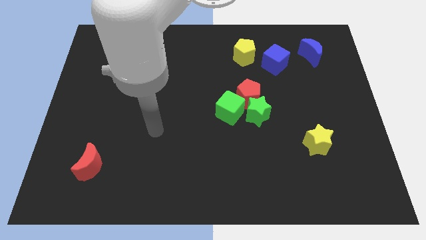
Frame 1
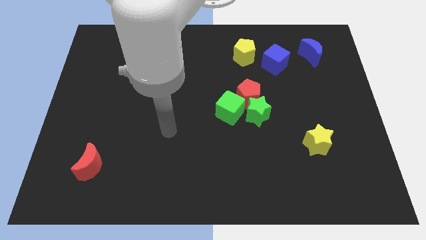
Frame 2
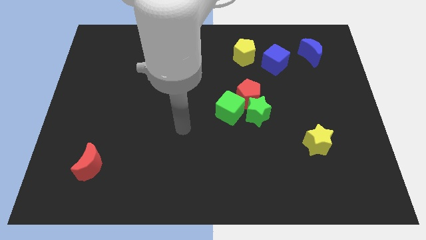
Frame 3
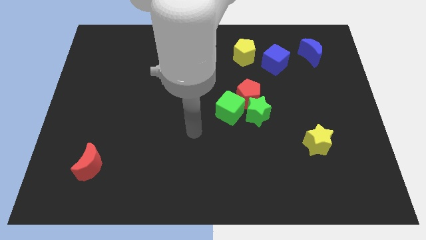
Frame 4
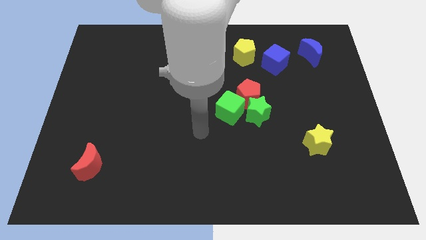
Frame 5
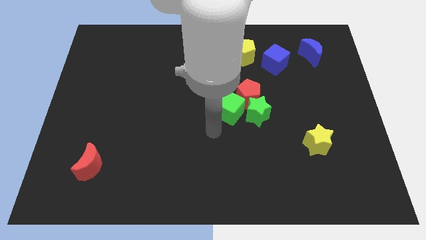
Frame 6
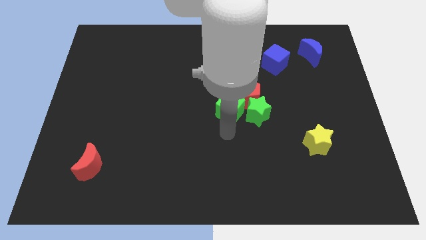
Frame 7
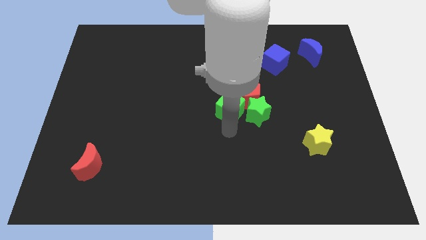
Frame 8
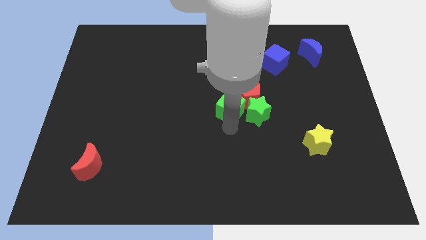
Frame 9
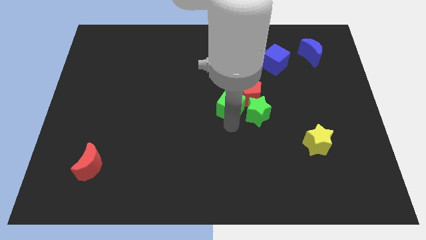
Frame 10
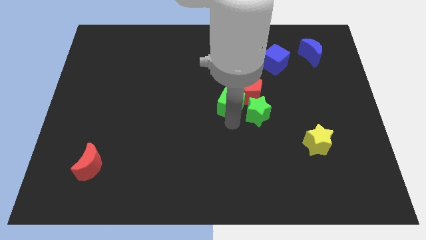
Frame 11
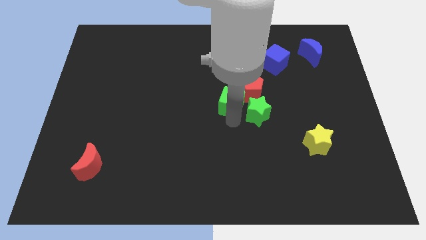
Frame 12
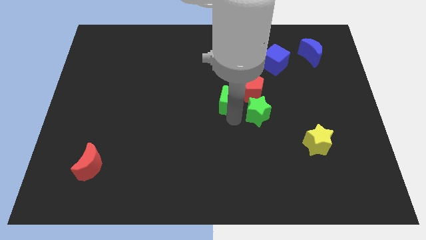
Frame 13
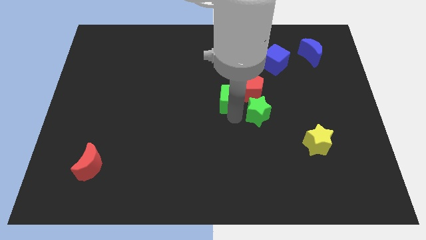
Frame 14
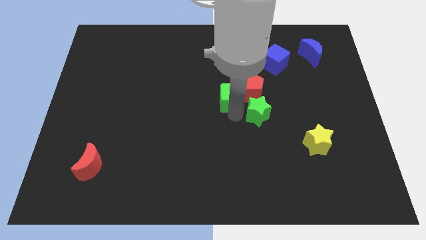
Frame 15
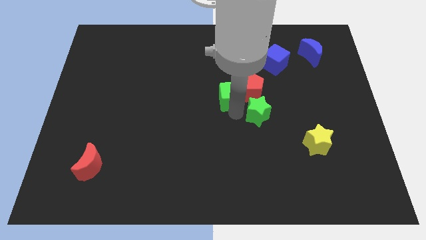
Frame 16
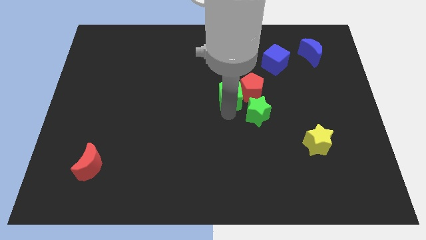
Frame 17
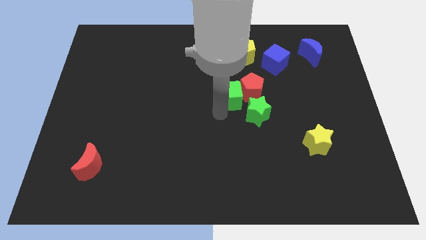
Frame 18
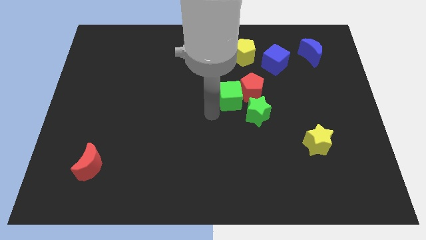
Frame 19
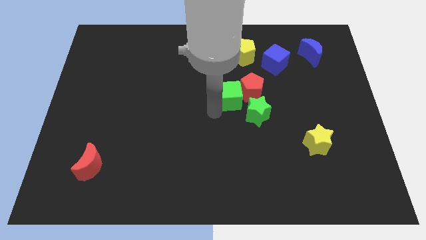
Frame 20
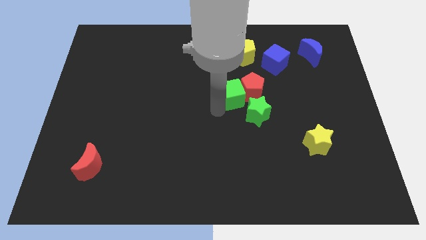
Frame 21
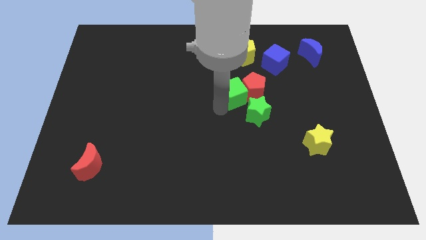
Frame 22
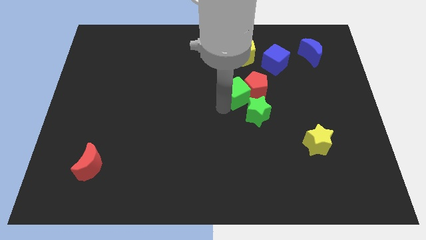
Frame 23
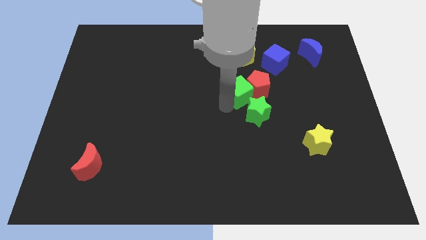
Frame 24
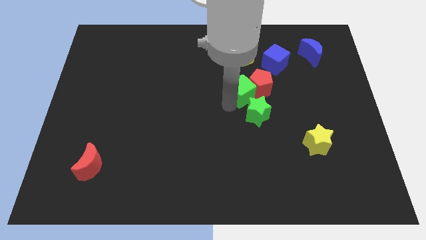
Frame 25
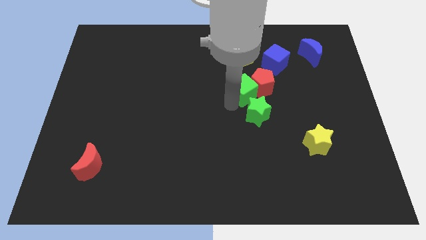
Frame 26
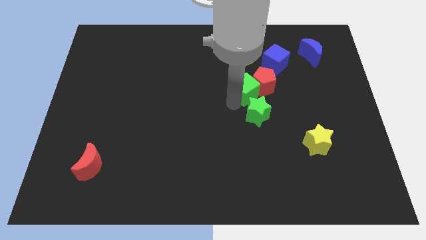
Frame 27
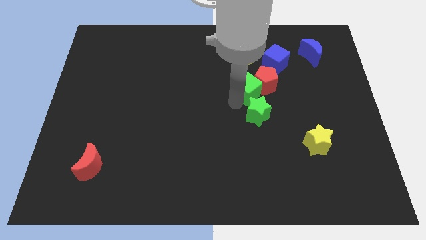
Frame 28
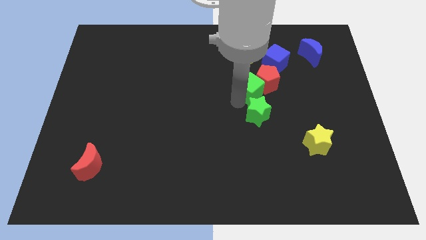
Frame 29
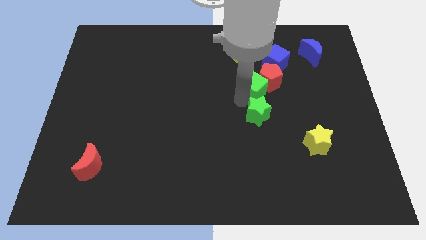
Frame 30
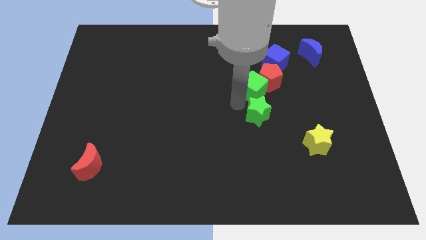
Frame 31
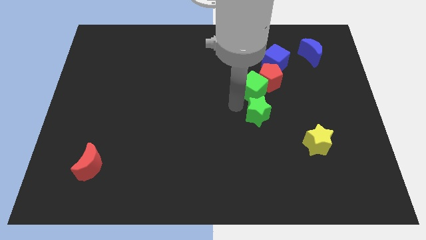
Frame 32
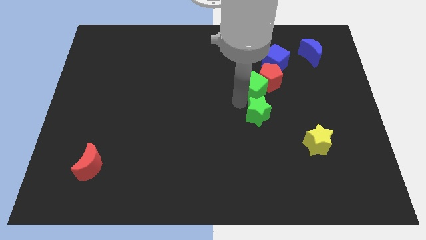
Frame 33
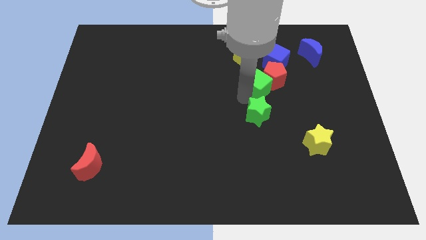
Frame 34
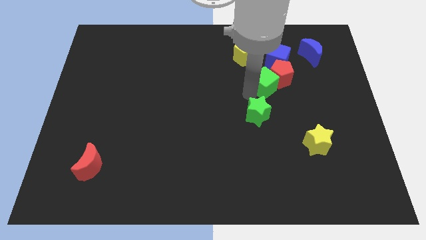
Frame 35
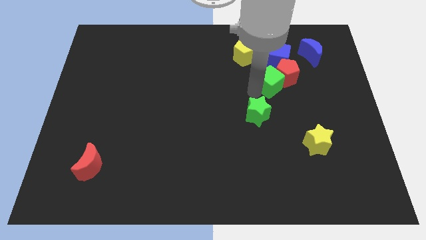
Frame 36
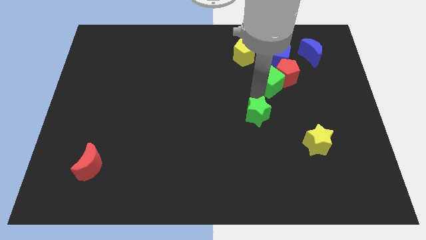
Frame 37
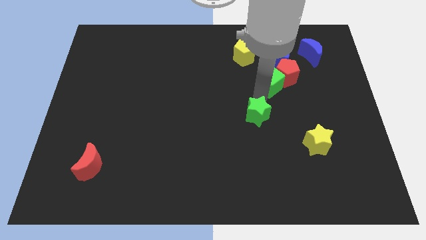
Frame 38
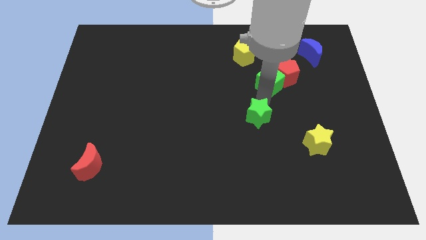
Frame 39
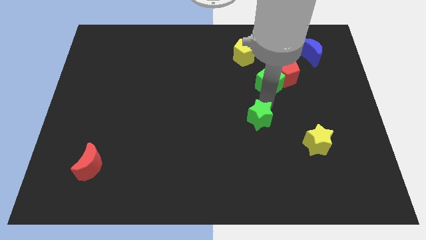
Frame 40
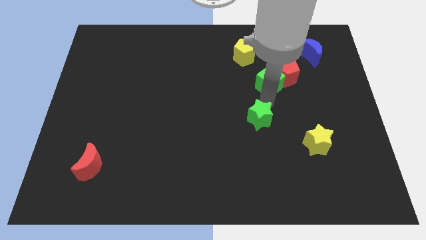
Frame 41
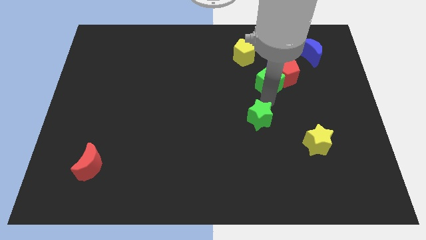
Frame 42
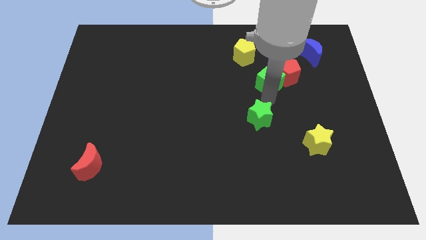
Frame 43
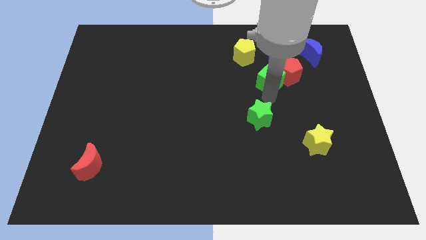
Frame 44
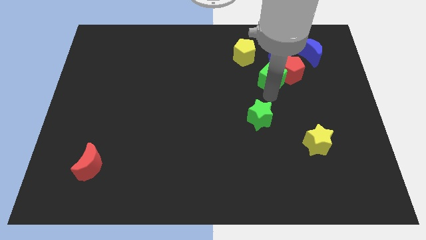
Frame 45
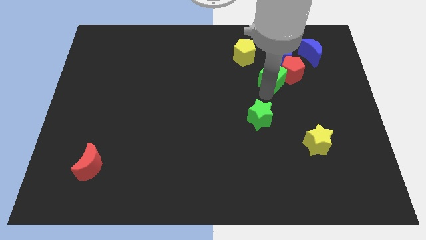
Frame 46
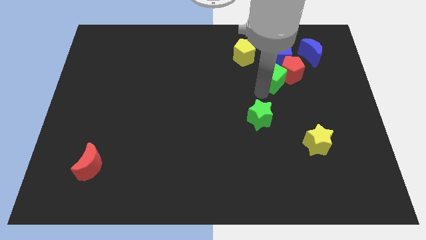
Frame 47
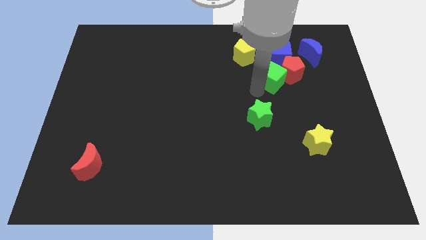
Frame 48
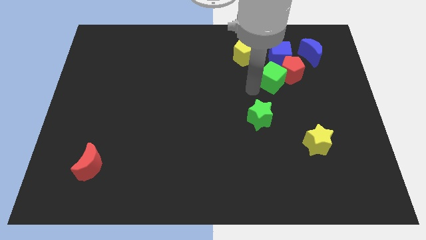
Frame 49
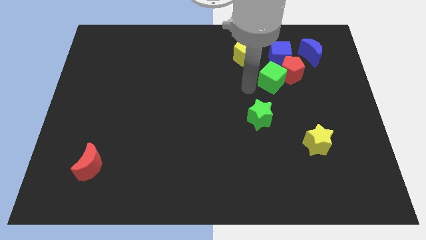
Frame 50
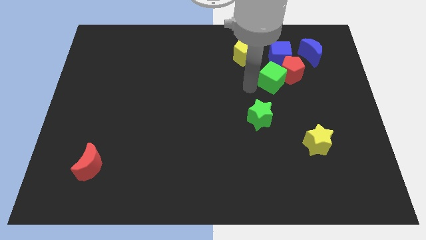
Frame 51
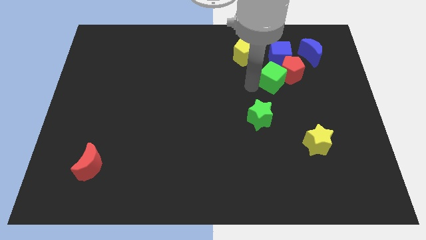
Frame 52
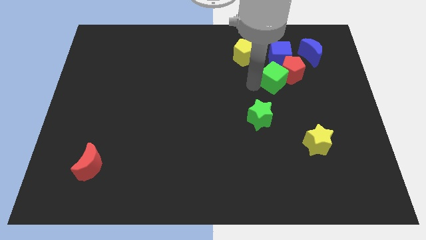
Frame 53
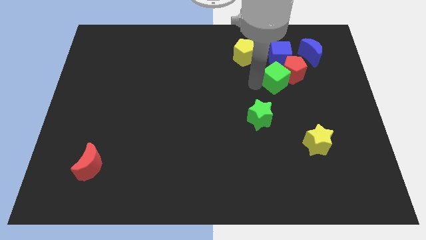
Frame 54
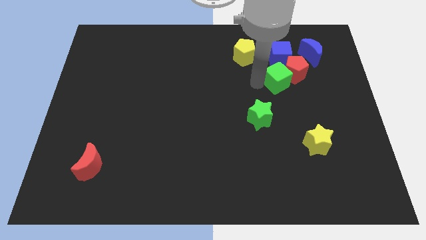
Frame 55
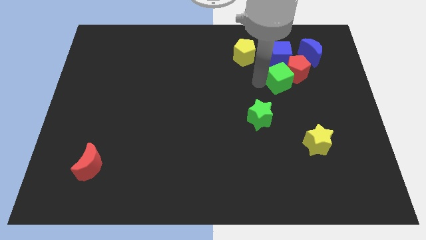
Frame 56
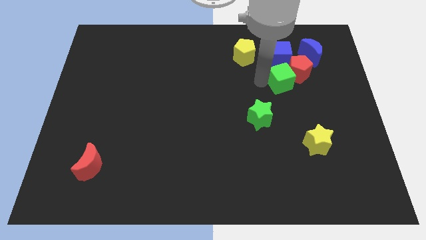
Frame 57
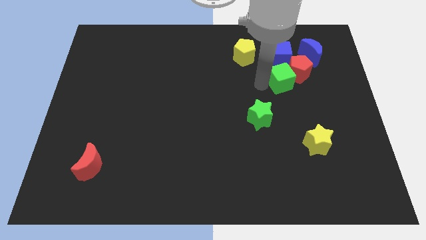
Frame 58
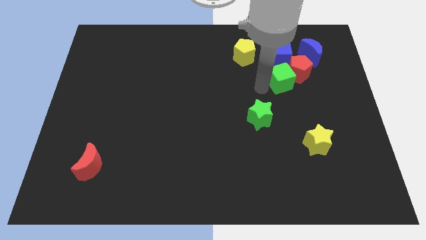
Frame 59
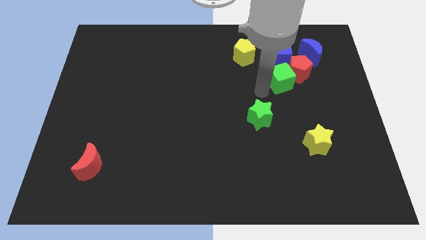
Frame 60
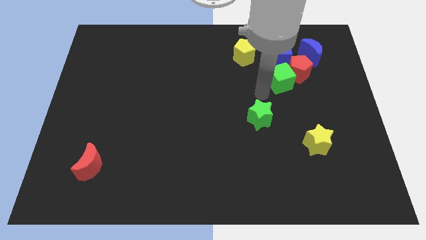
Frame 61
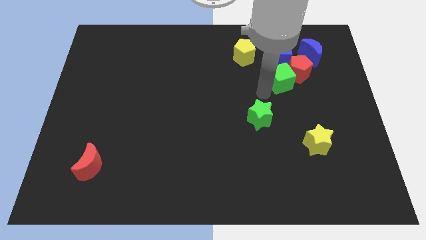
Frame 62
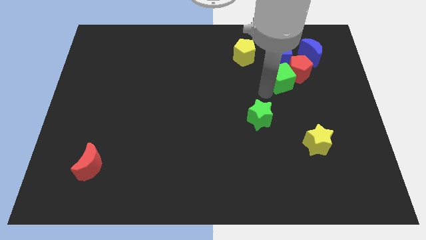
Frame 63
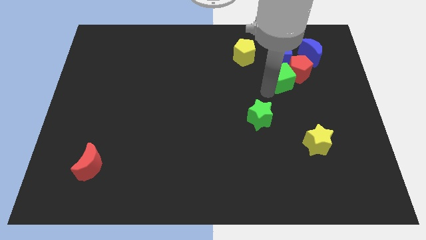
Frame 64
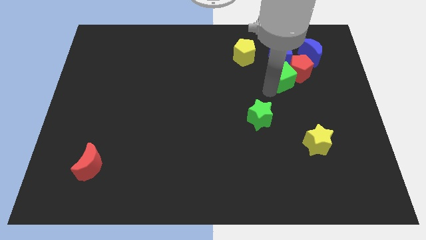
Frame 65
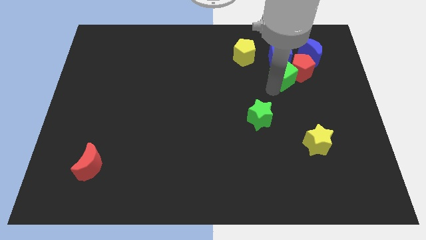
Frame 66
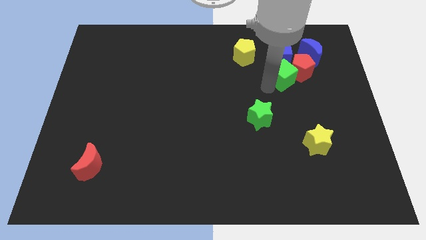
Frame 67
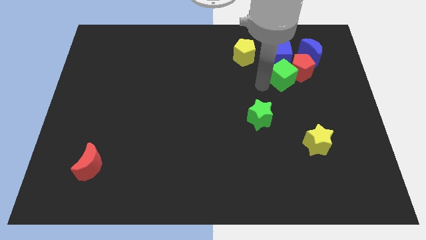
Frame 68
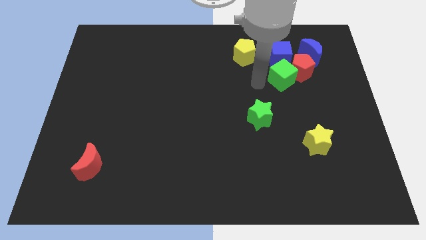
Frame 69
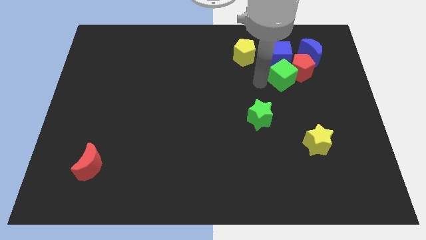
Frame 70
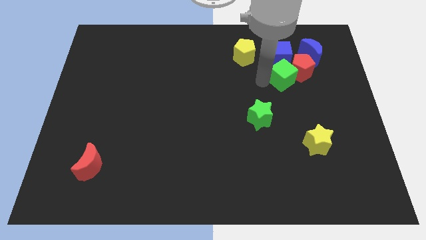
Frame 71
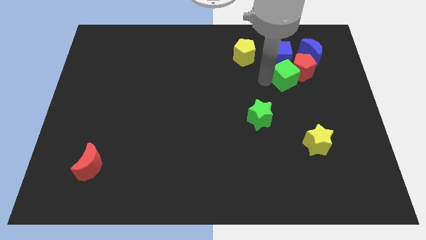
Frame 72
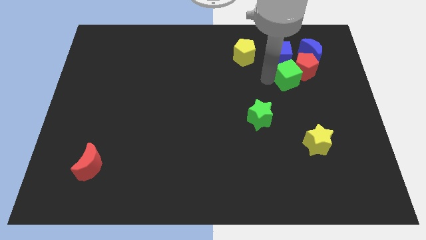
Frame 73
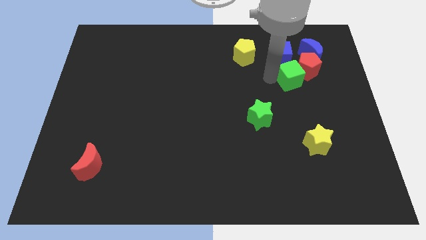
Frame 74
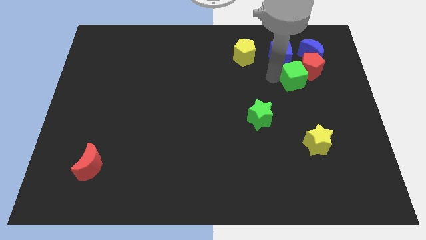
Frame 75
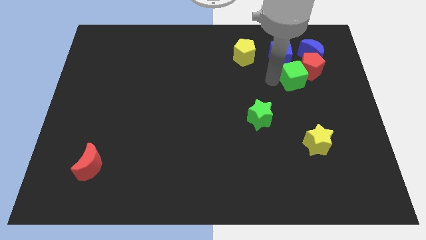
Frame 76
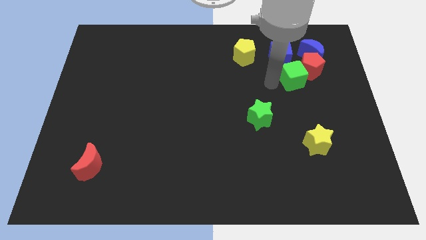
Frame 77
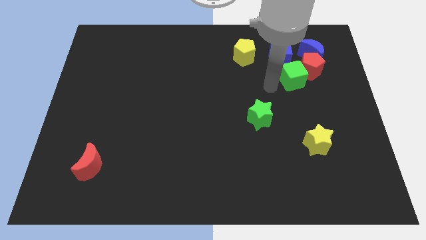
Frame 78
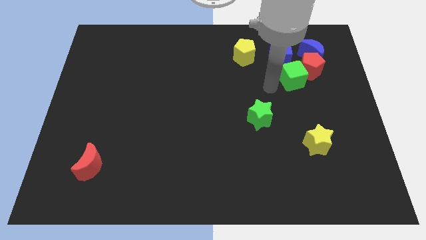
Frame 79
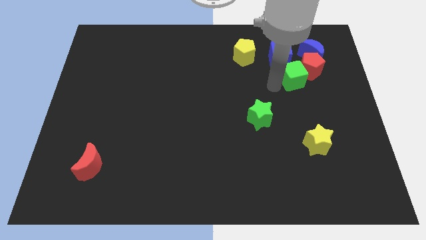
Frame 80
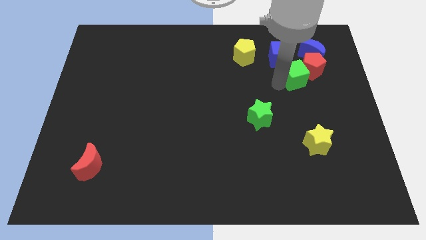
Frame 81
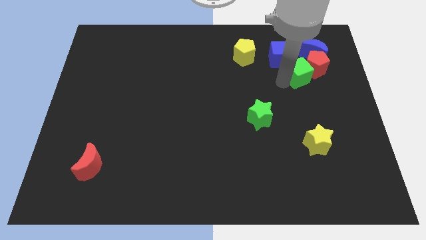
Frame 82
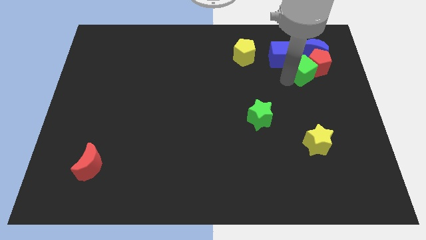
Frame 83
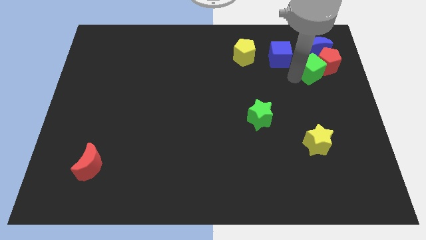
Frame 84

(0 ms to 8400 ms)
put the green cube just right of the blue cube
